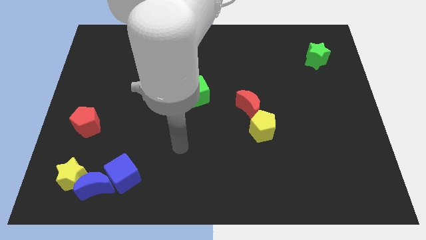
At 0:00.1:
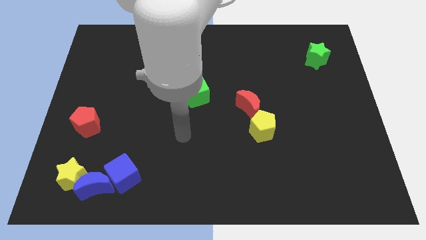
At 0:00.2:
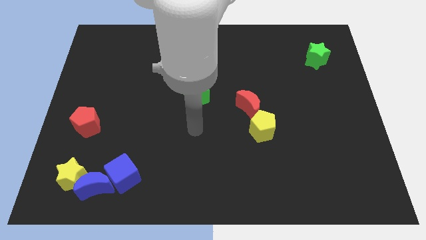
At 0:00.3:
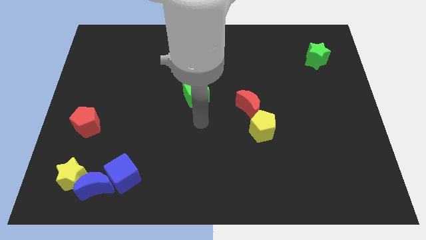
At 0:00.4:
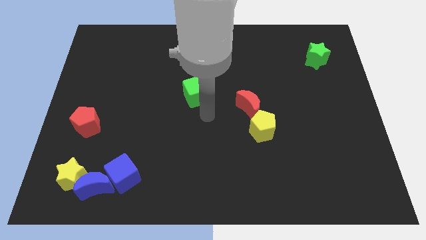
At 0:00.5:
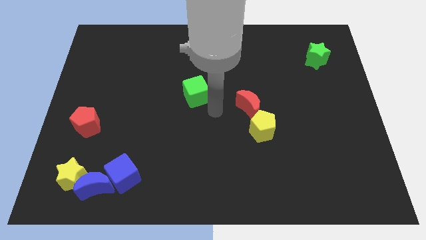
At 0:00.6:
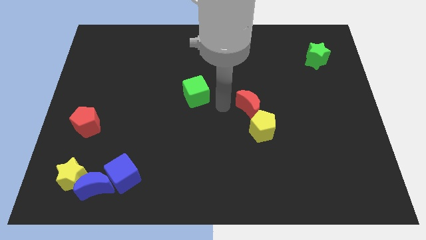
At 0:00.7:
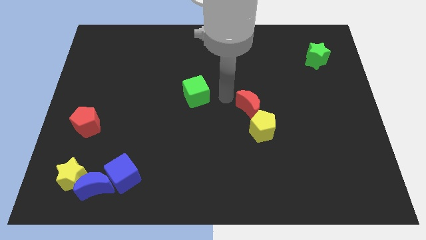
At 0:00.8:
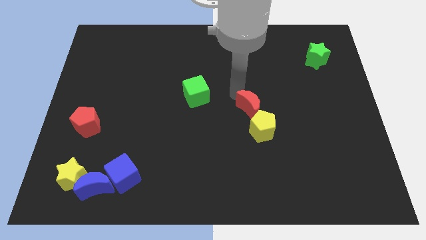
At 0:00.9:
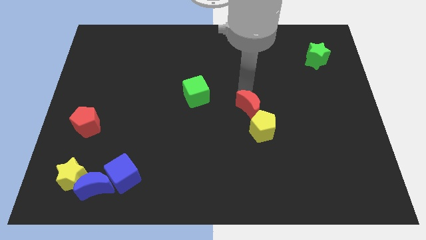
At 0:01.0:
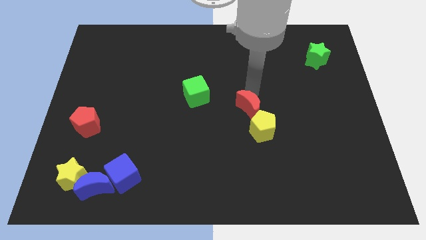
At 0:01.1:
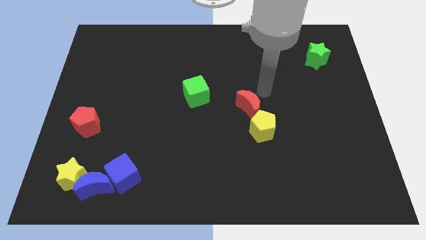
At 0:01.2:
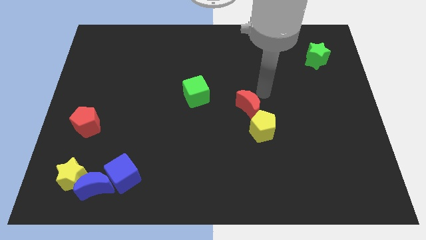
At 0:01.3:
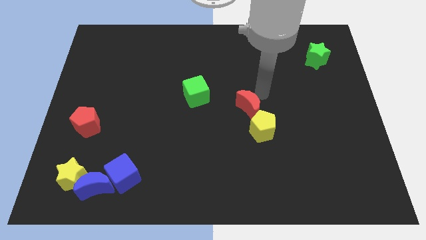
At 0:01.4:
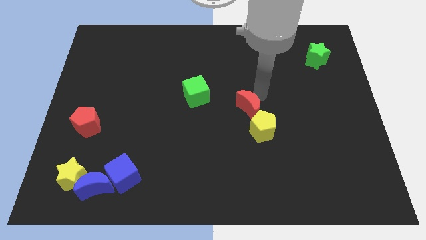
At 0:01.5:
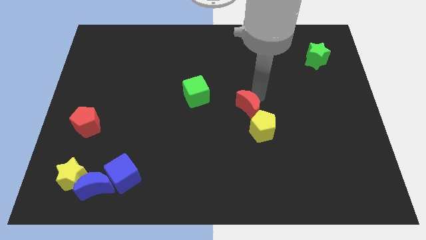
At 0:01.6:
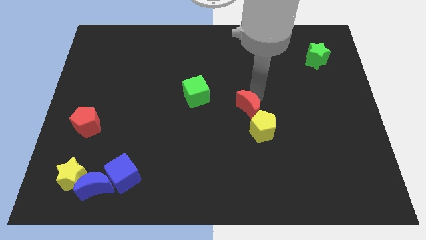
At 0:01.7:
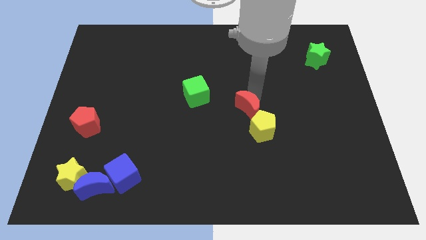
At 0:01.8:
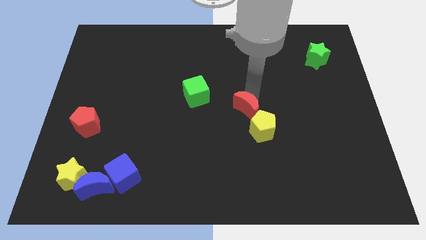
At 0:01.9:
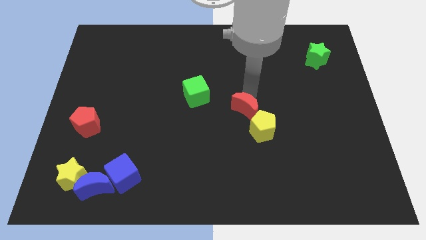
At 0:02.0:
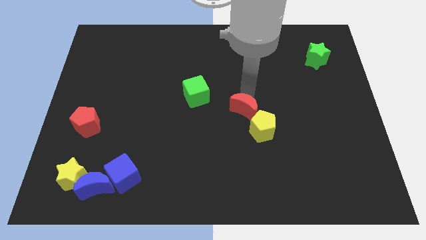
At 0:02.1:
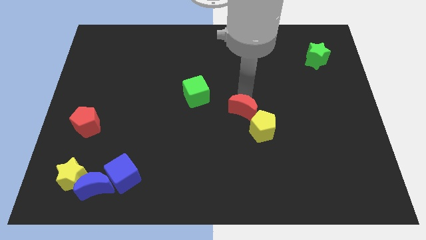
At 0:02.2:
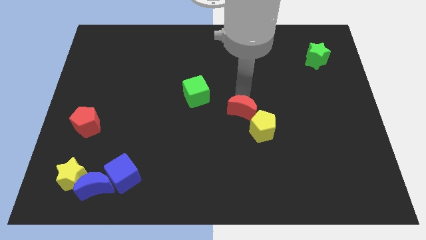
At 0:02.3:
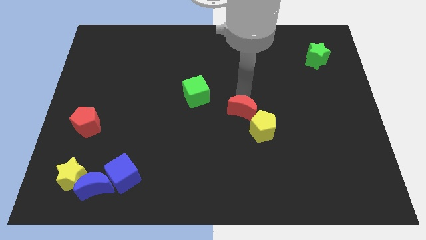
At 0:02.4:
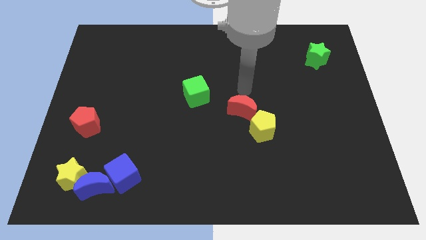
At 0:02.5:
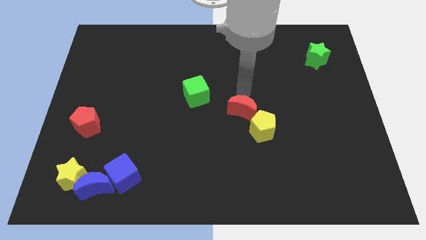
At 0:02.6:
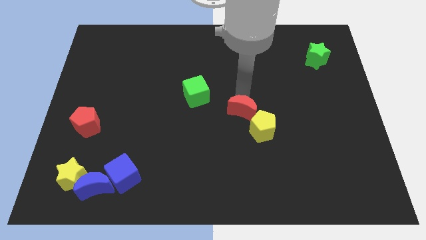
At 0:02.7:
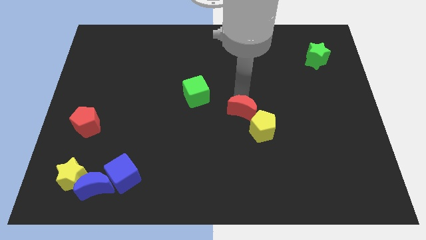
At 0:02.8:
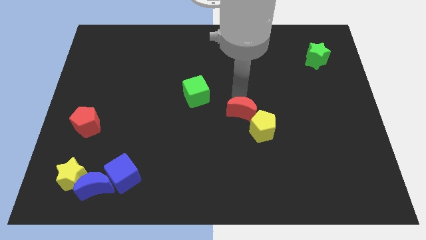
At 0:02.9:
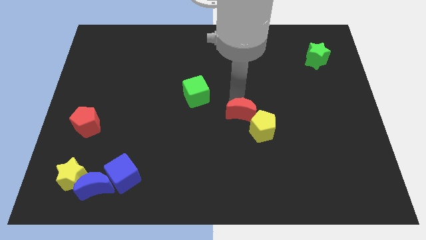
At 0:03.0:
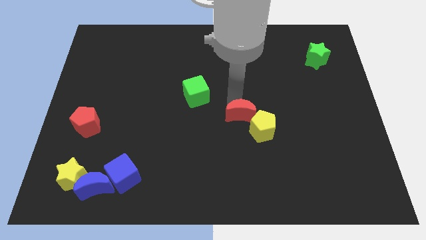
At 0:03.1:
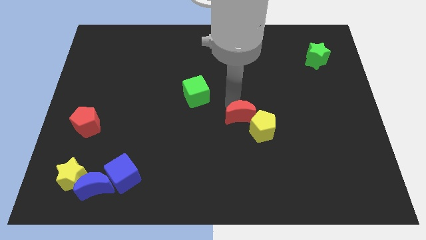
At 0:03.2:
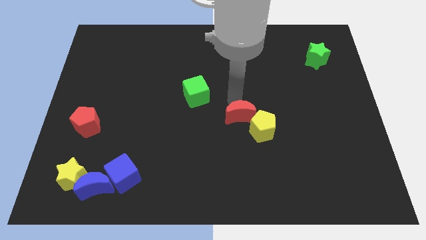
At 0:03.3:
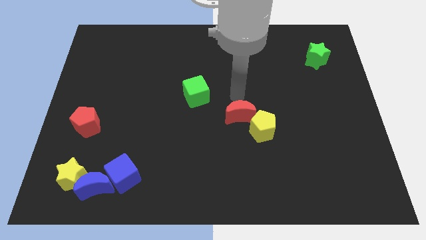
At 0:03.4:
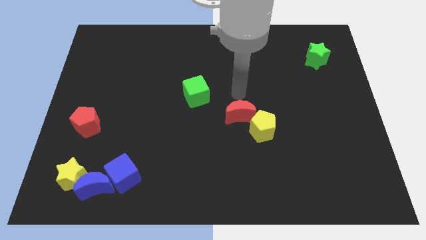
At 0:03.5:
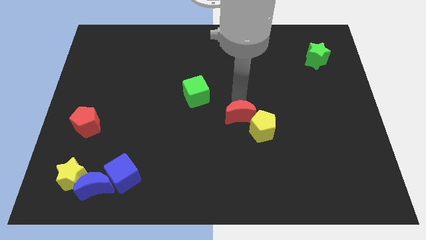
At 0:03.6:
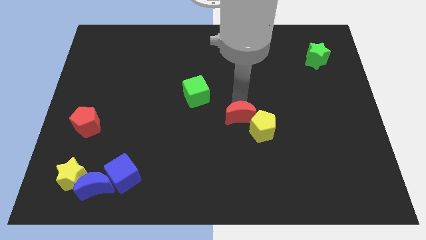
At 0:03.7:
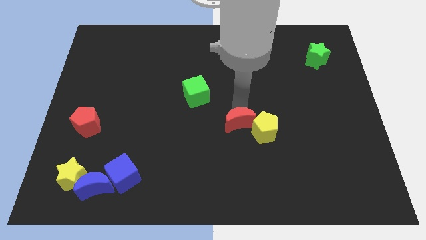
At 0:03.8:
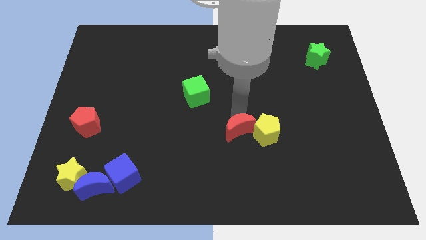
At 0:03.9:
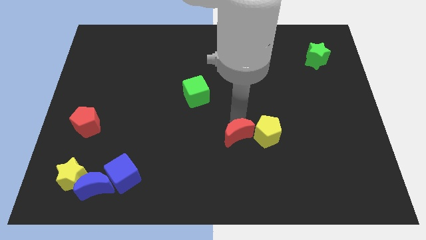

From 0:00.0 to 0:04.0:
slightly move the red moon downwards

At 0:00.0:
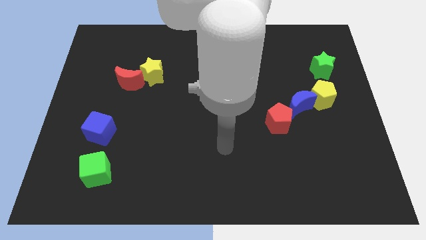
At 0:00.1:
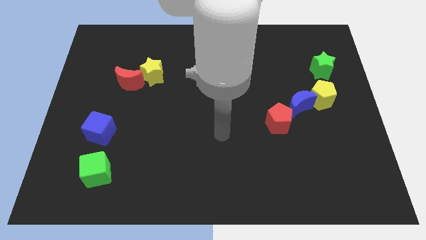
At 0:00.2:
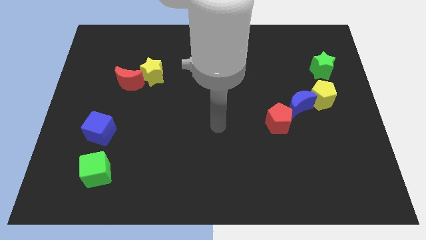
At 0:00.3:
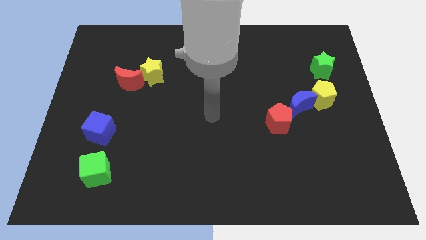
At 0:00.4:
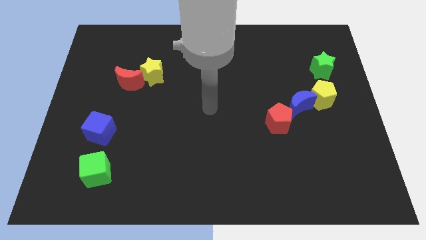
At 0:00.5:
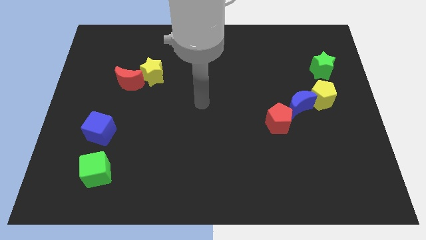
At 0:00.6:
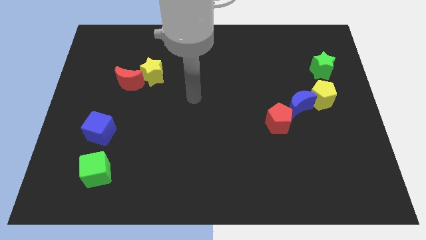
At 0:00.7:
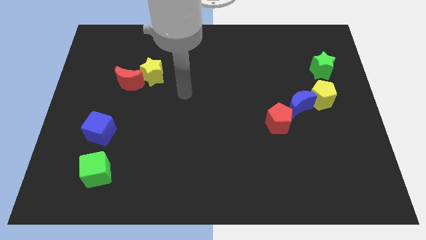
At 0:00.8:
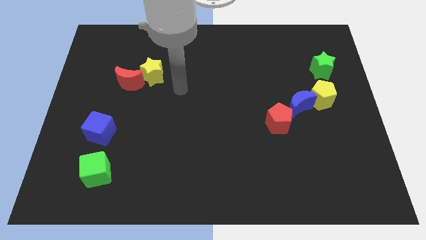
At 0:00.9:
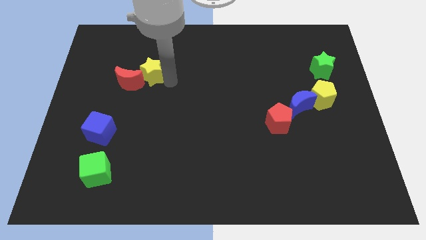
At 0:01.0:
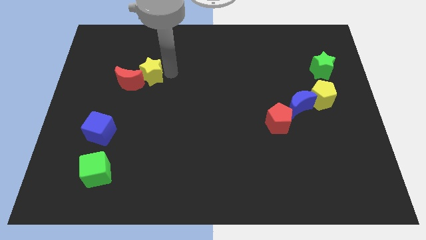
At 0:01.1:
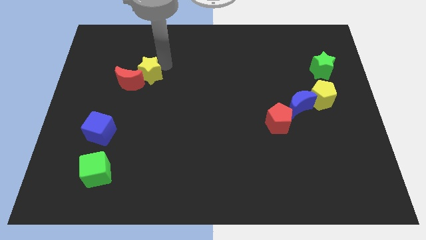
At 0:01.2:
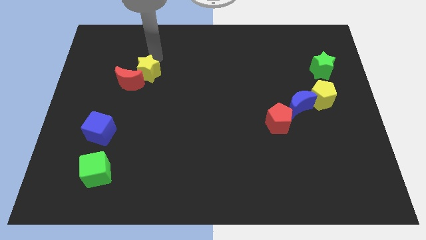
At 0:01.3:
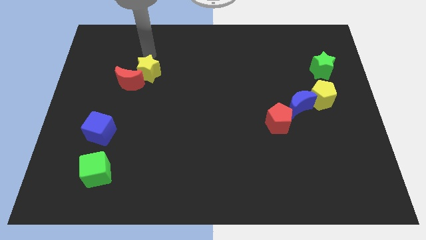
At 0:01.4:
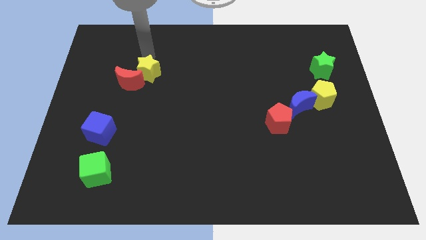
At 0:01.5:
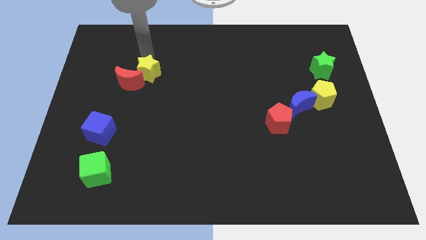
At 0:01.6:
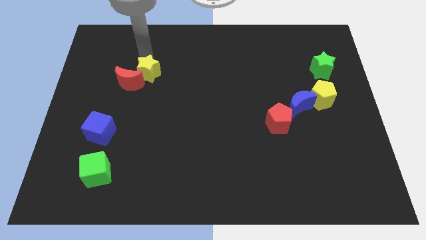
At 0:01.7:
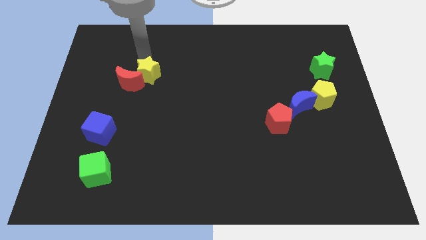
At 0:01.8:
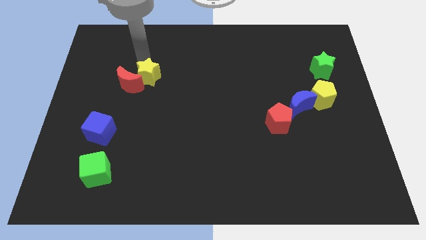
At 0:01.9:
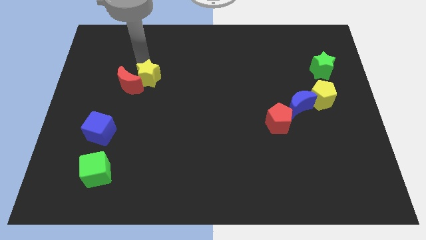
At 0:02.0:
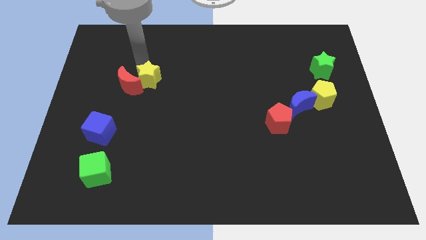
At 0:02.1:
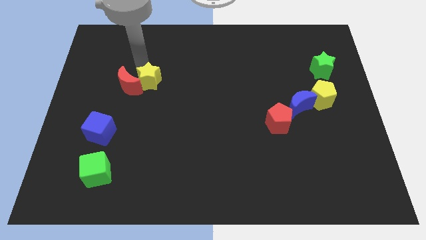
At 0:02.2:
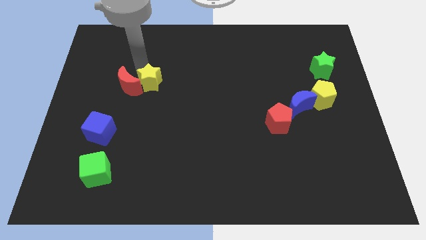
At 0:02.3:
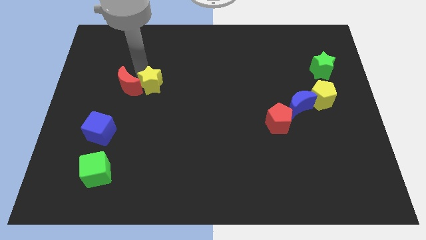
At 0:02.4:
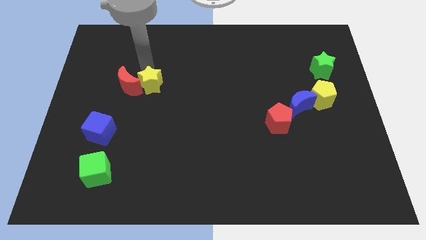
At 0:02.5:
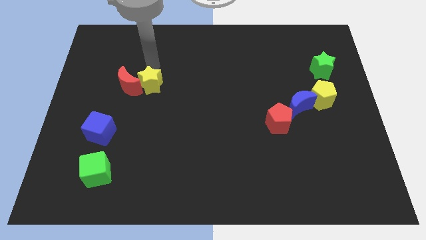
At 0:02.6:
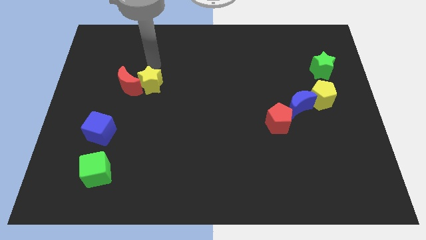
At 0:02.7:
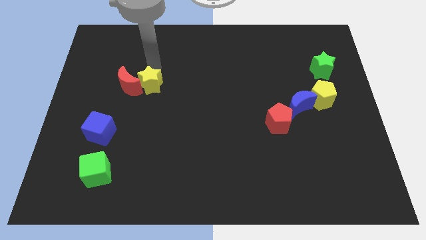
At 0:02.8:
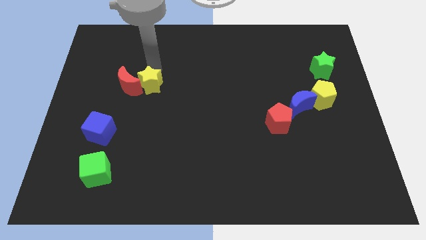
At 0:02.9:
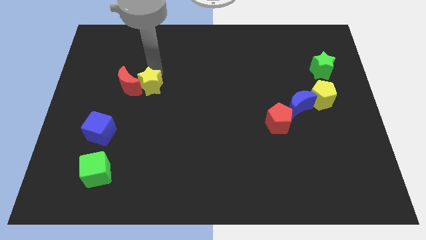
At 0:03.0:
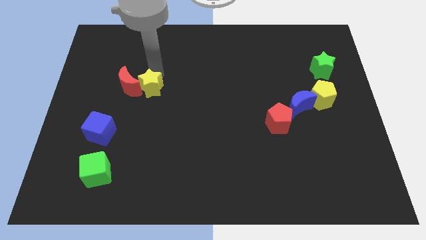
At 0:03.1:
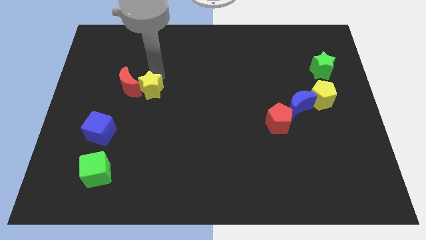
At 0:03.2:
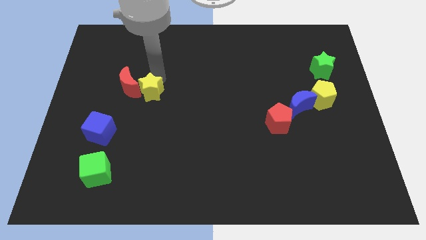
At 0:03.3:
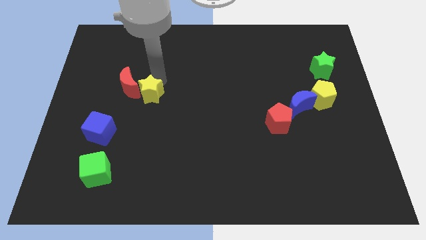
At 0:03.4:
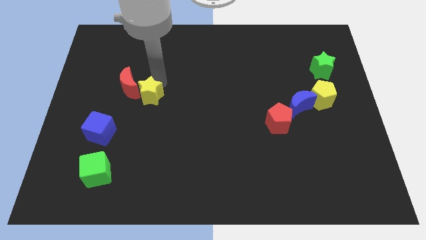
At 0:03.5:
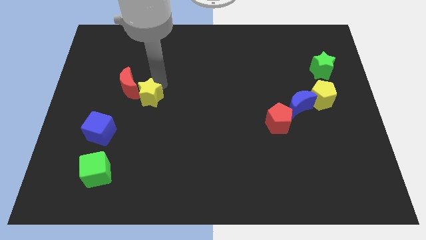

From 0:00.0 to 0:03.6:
slightly move the yellow star downwards

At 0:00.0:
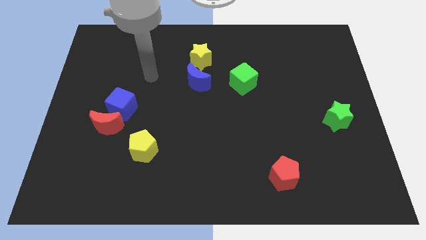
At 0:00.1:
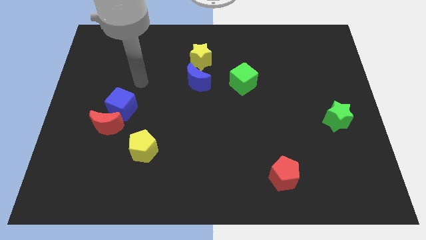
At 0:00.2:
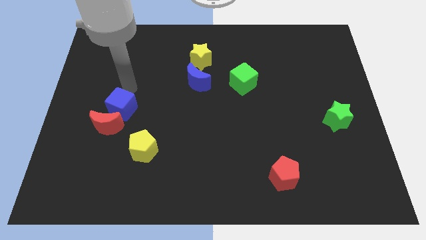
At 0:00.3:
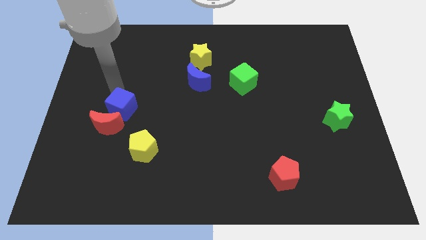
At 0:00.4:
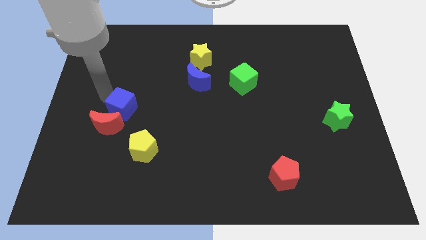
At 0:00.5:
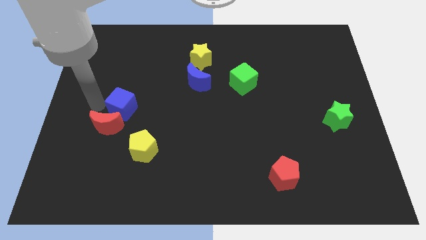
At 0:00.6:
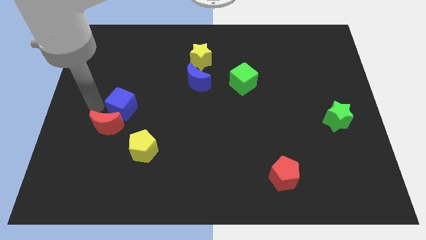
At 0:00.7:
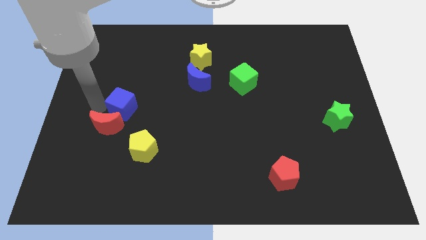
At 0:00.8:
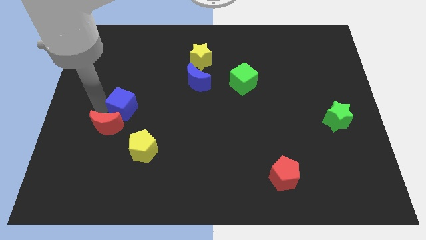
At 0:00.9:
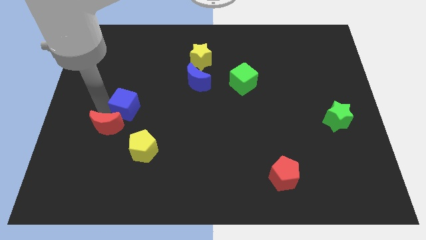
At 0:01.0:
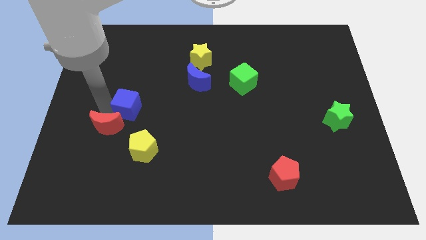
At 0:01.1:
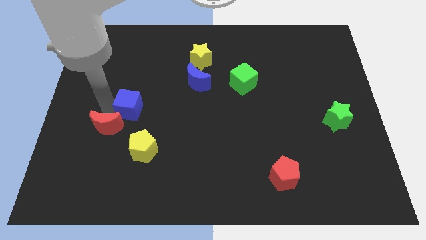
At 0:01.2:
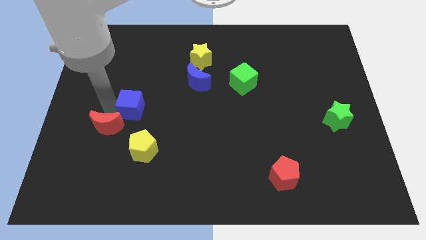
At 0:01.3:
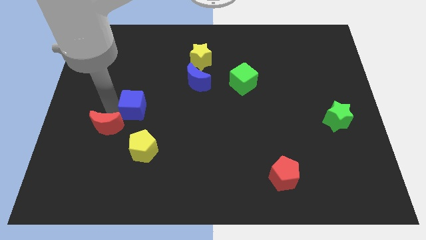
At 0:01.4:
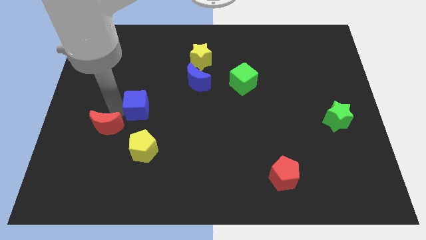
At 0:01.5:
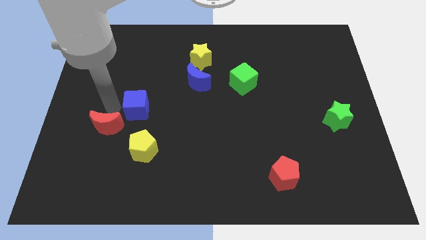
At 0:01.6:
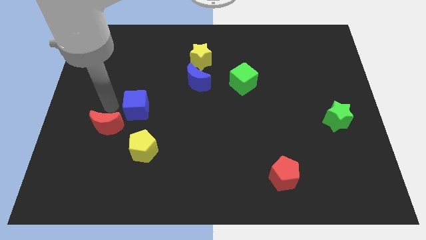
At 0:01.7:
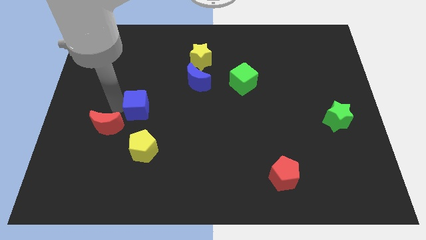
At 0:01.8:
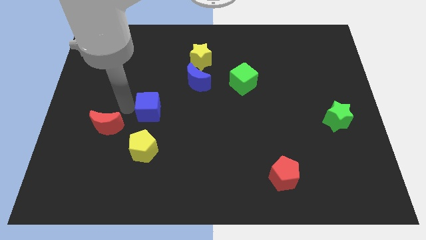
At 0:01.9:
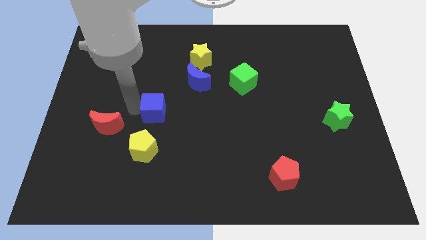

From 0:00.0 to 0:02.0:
push the blue cube to the right a little
